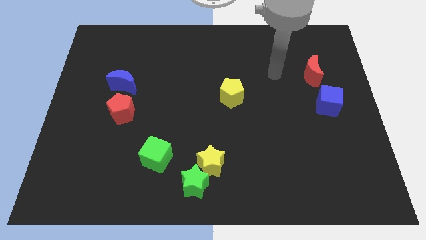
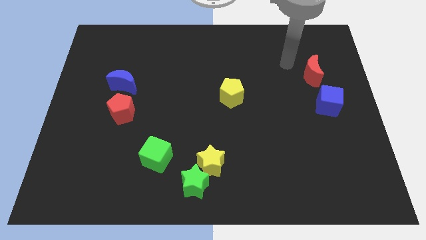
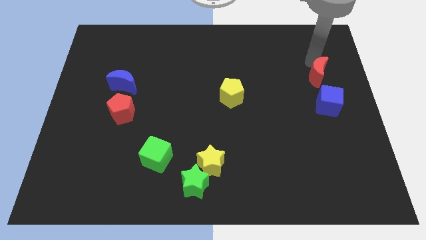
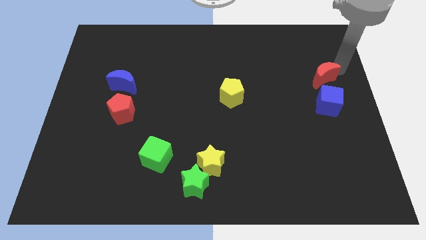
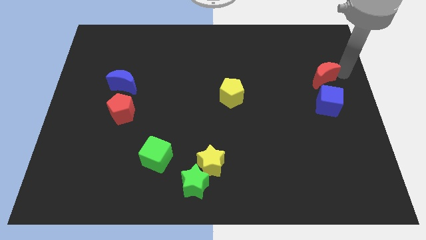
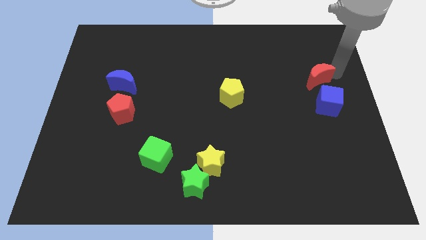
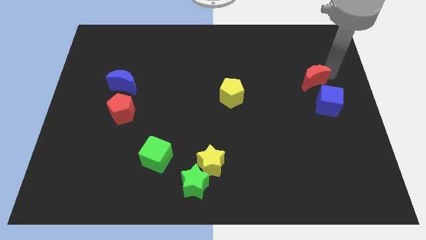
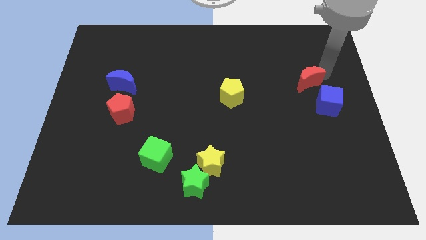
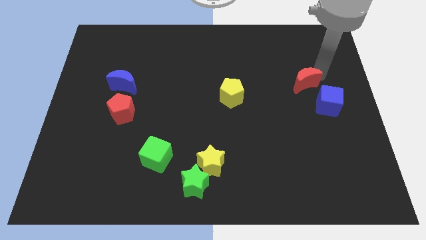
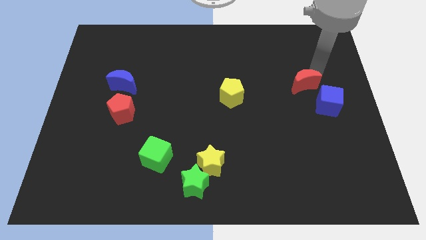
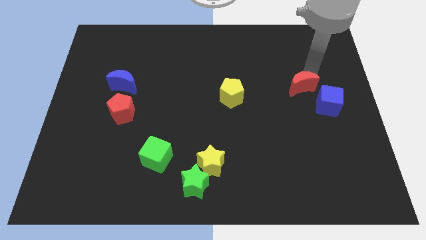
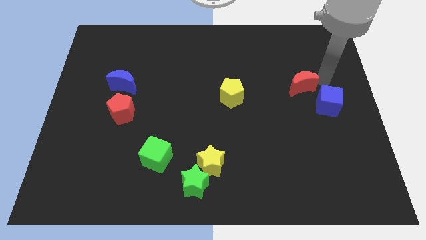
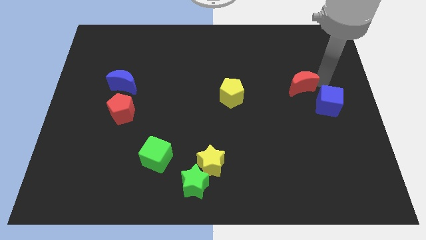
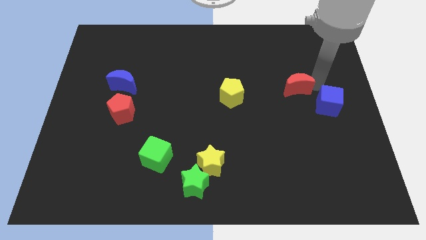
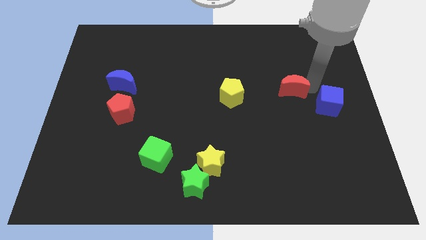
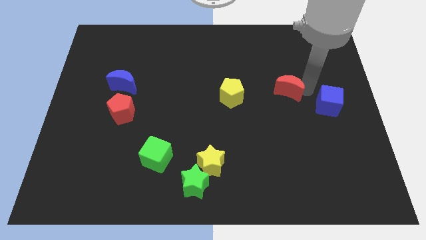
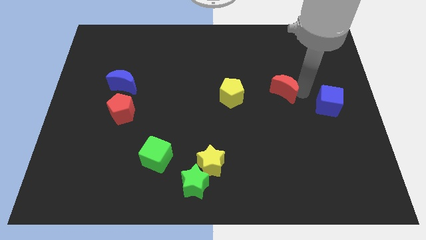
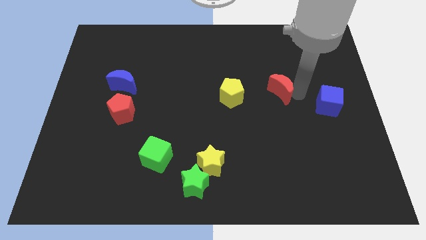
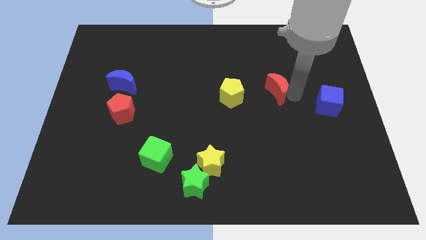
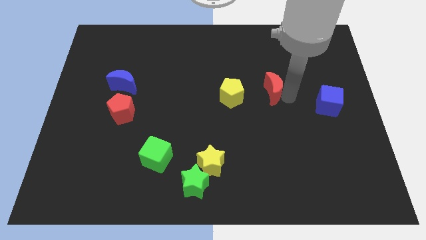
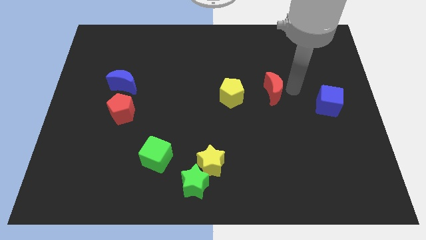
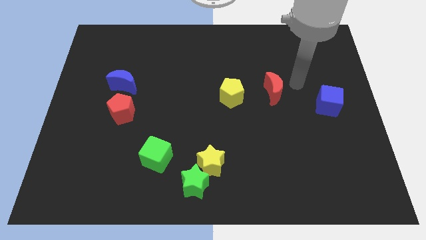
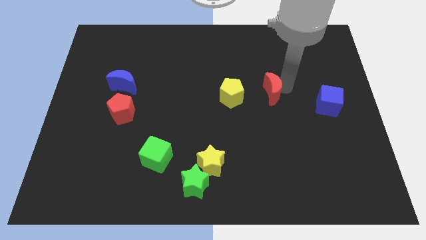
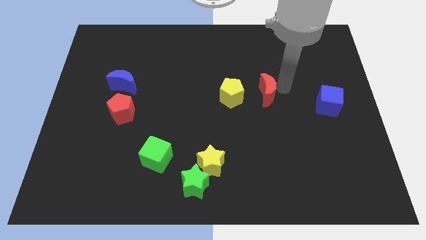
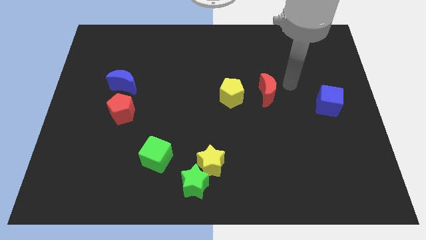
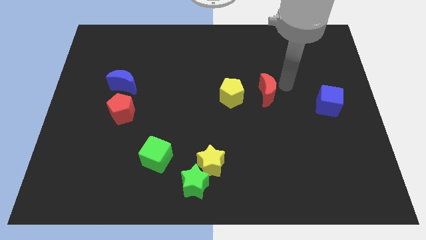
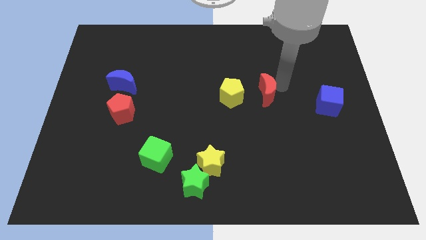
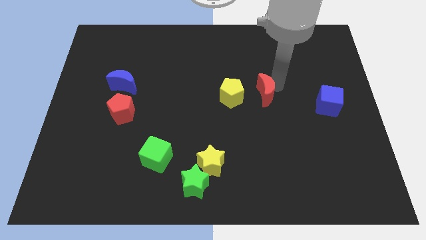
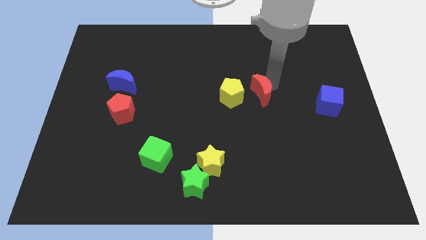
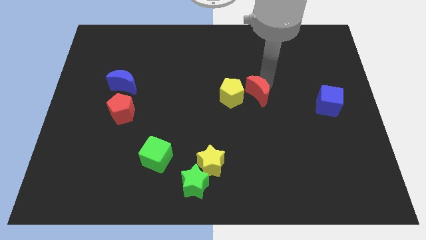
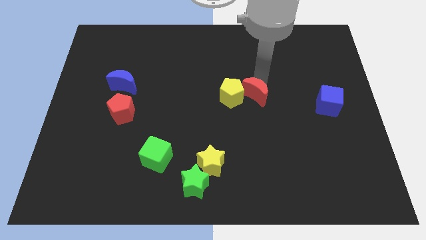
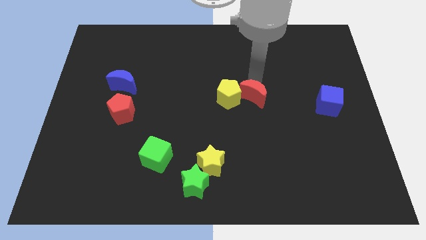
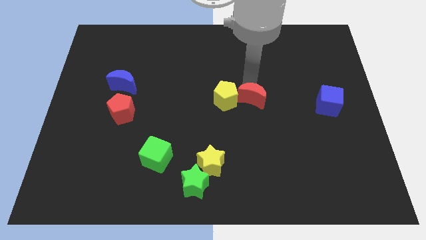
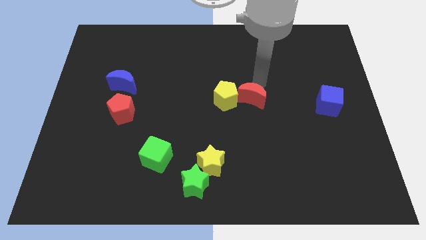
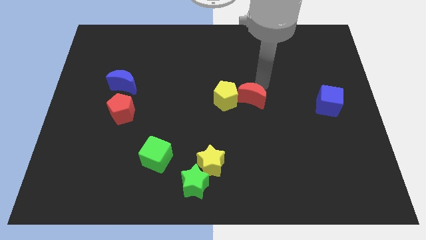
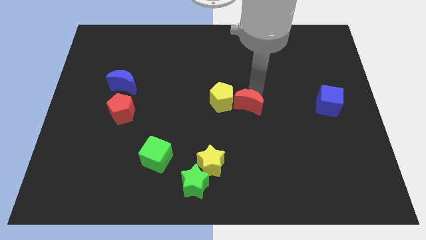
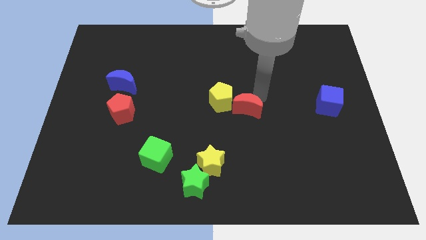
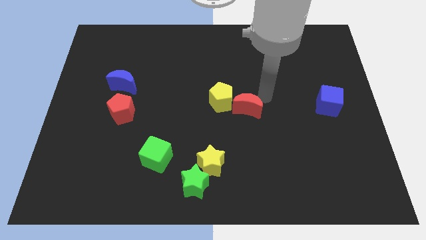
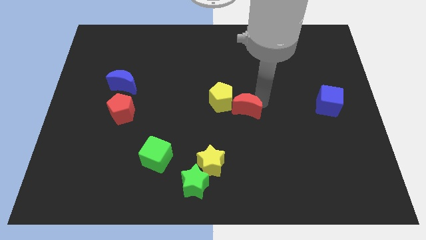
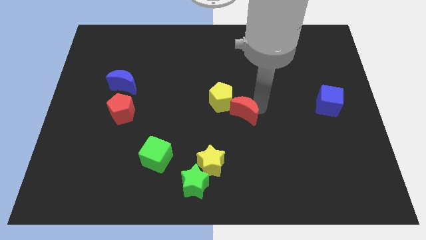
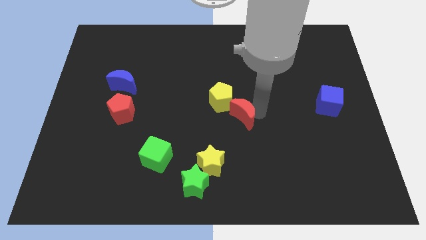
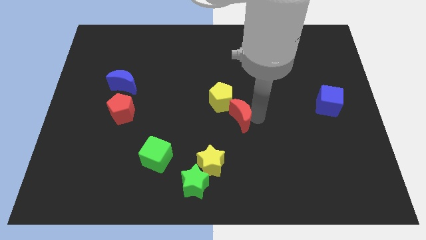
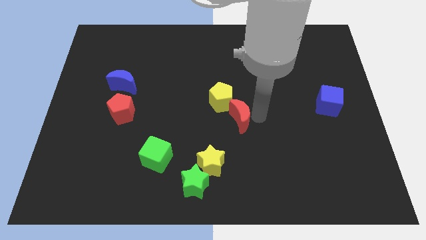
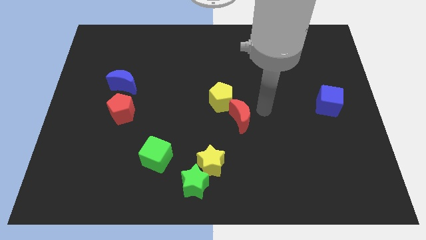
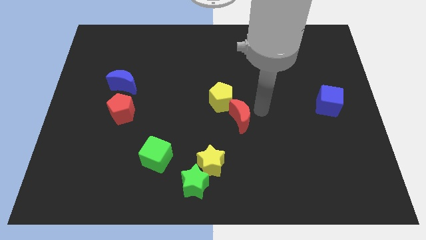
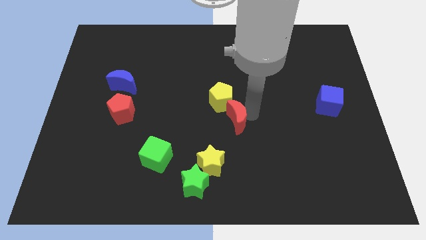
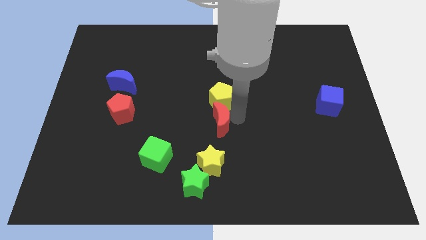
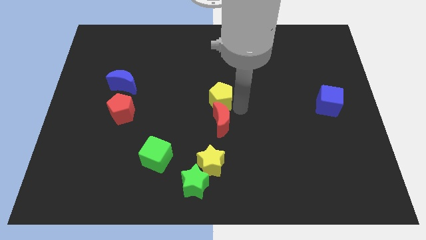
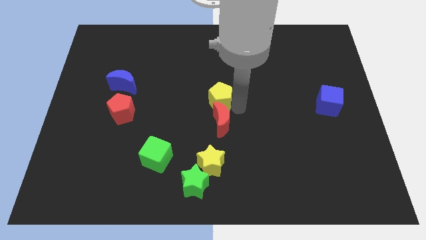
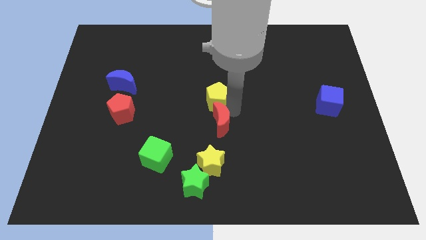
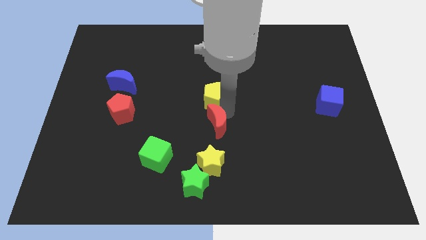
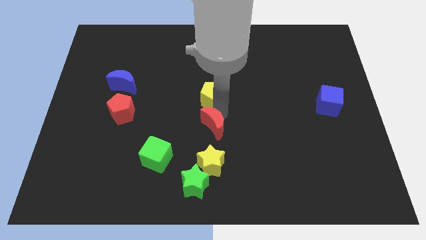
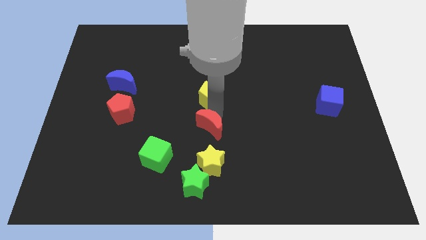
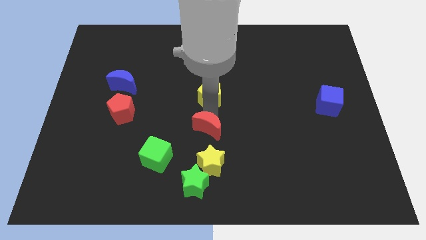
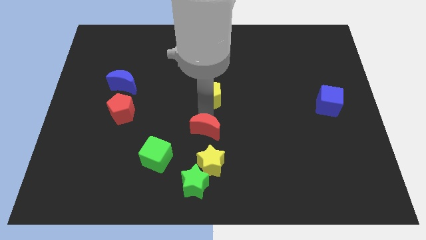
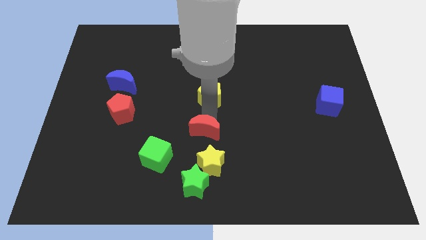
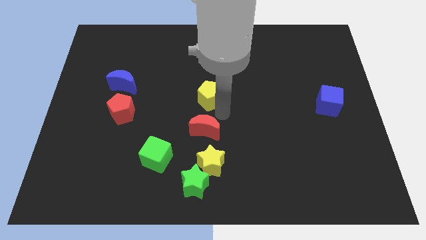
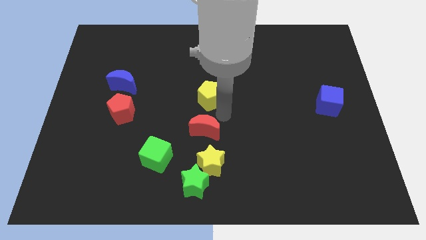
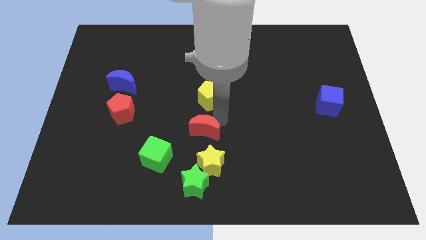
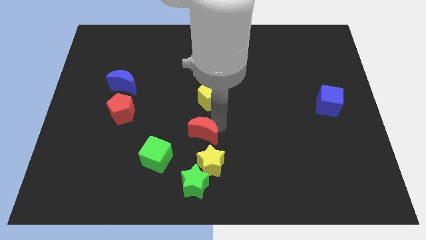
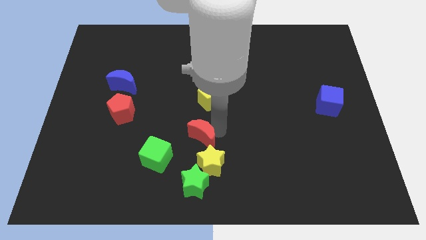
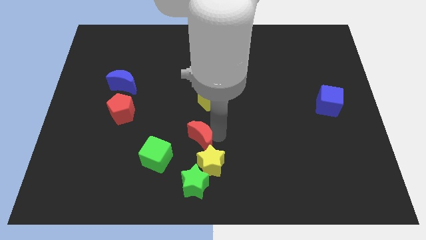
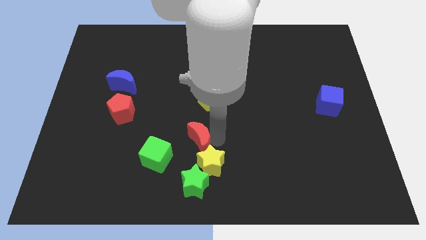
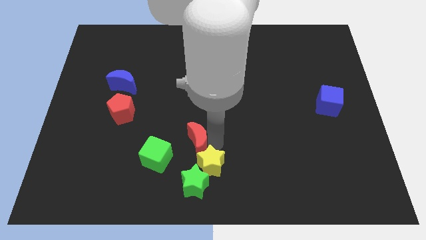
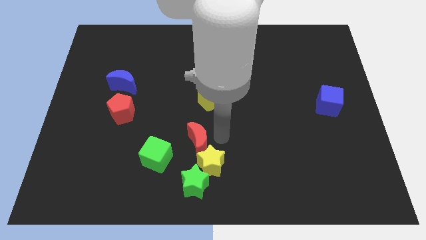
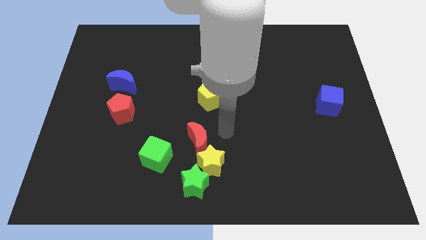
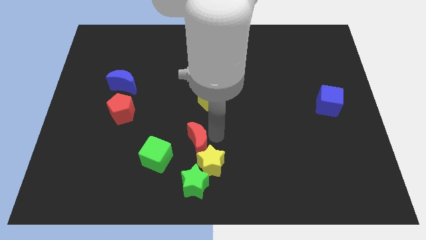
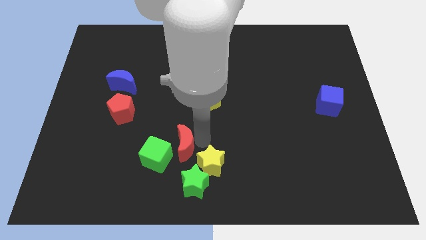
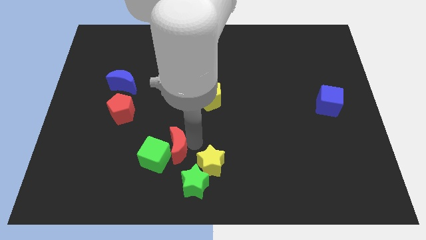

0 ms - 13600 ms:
push the red moon towards the green cube
